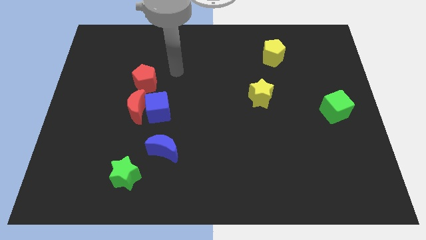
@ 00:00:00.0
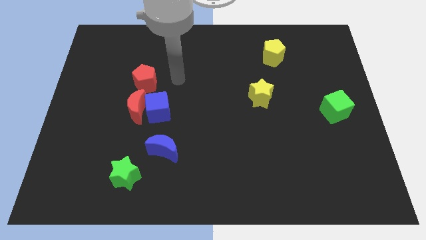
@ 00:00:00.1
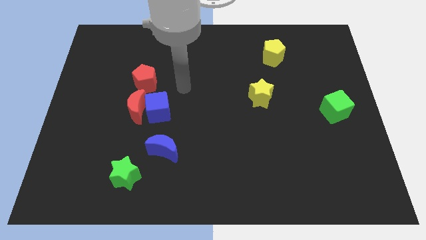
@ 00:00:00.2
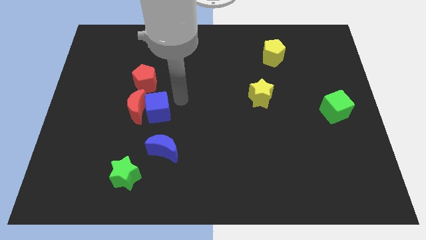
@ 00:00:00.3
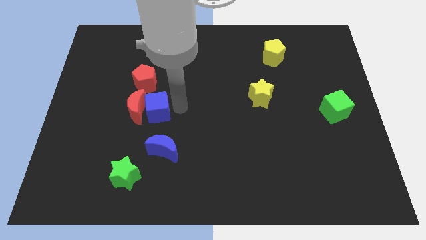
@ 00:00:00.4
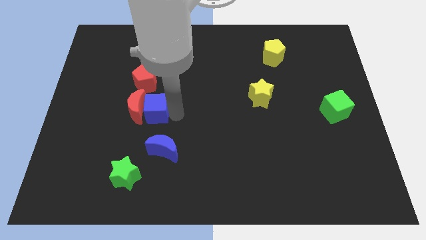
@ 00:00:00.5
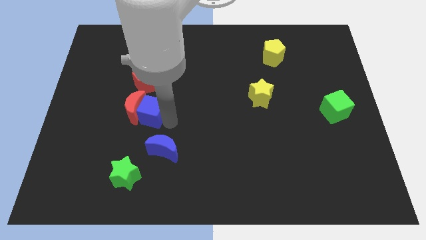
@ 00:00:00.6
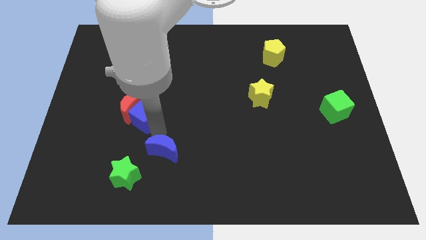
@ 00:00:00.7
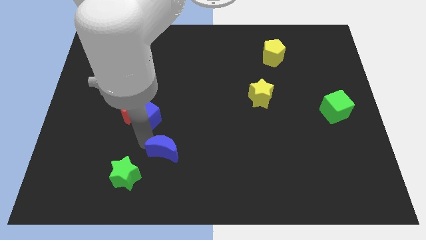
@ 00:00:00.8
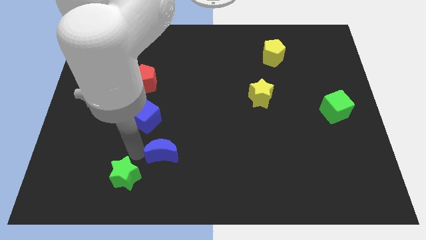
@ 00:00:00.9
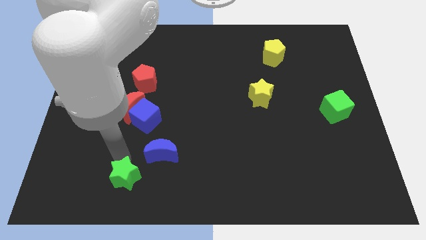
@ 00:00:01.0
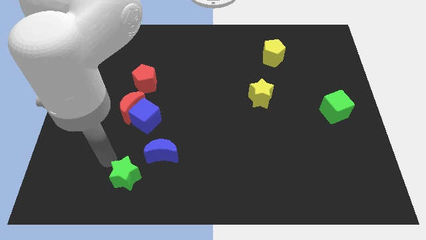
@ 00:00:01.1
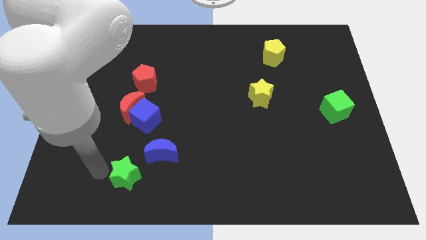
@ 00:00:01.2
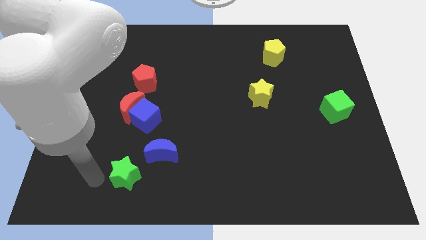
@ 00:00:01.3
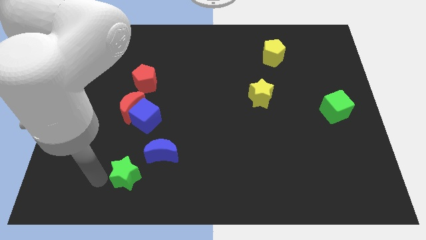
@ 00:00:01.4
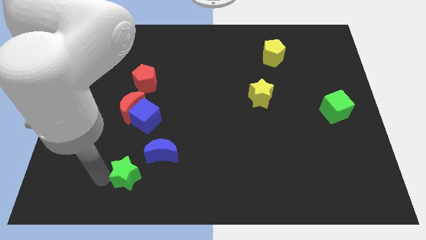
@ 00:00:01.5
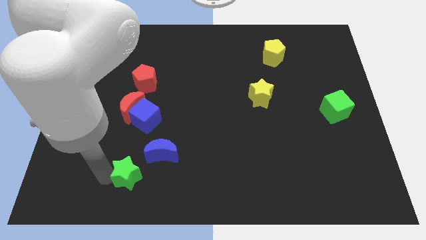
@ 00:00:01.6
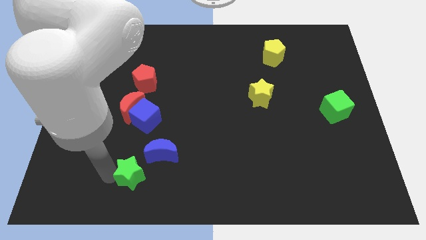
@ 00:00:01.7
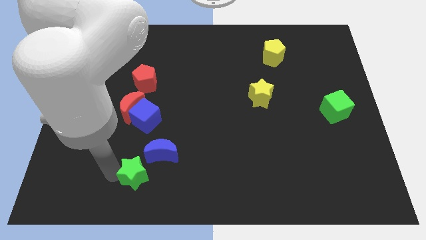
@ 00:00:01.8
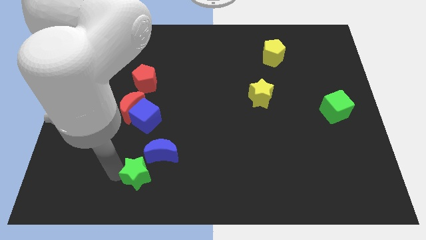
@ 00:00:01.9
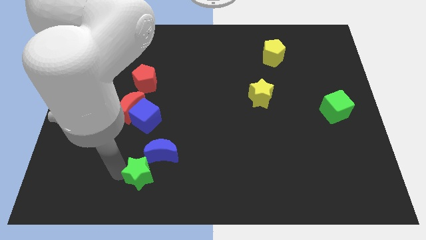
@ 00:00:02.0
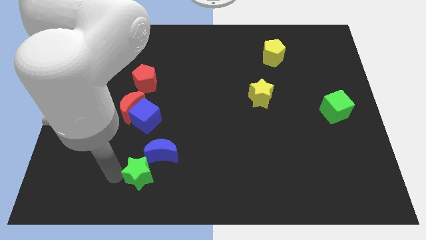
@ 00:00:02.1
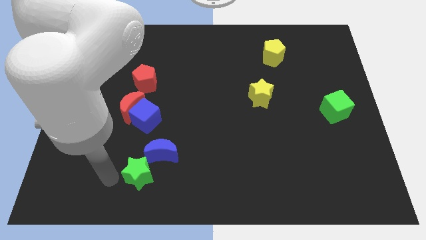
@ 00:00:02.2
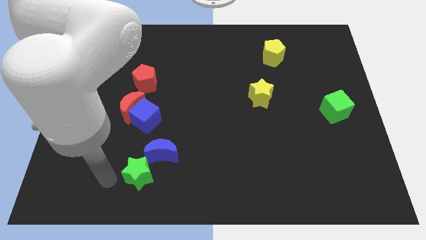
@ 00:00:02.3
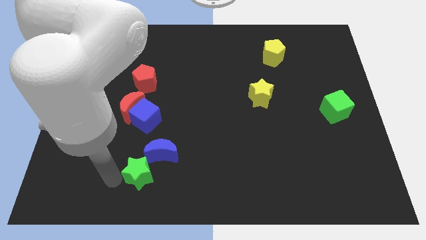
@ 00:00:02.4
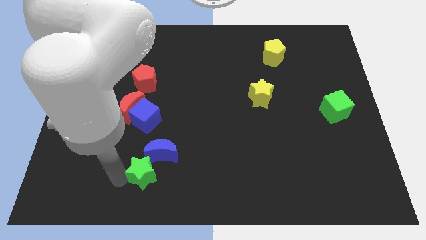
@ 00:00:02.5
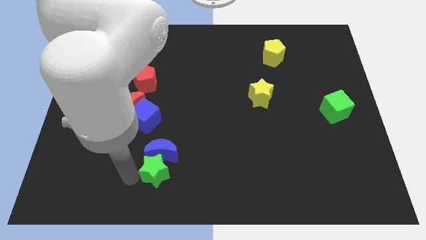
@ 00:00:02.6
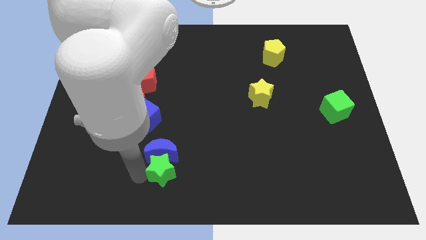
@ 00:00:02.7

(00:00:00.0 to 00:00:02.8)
slide the green star to the right a bit

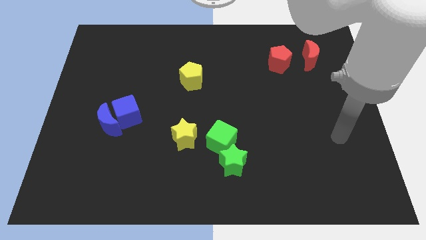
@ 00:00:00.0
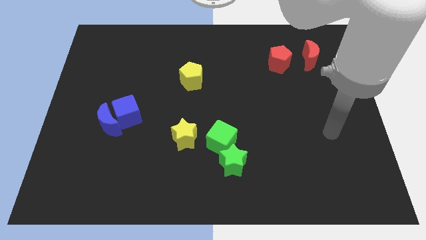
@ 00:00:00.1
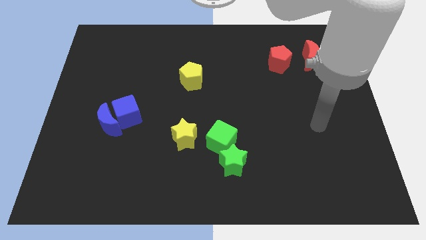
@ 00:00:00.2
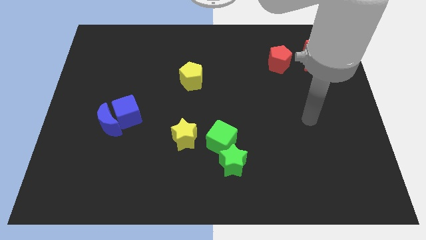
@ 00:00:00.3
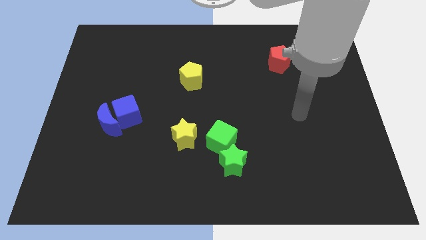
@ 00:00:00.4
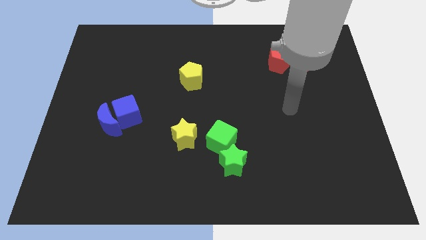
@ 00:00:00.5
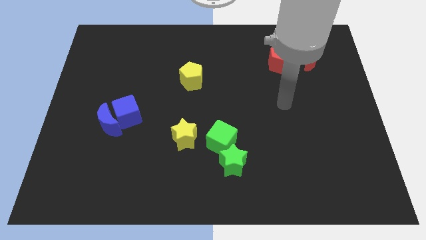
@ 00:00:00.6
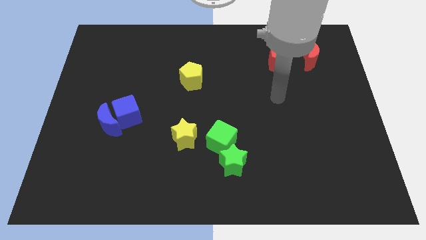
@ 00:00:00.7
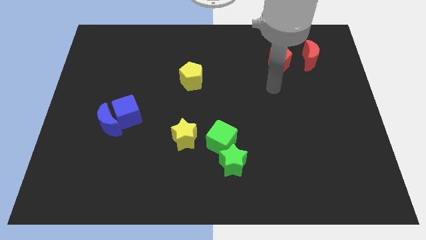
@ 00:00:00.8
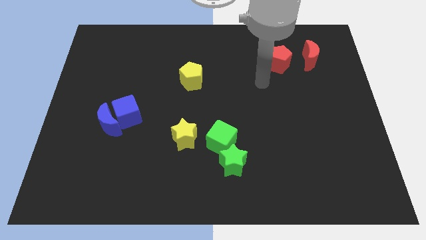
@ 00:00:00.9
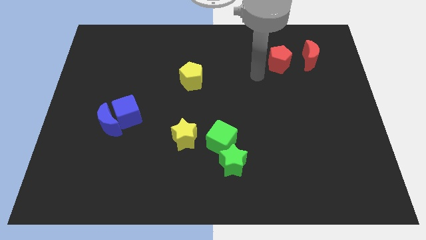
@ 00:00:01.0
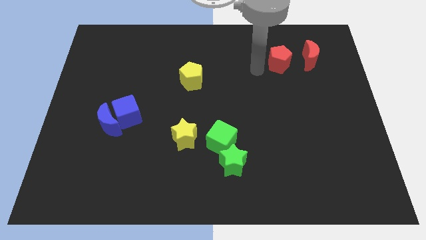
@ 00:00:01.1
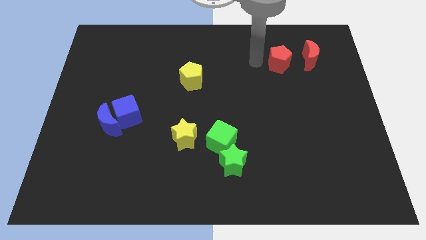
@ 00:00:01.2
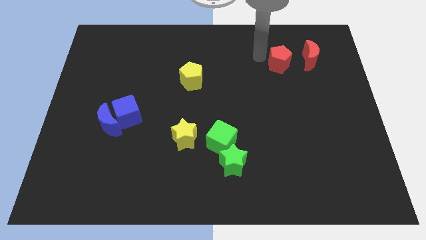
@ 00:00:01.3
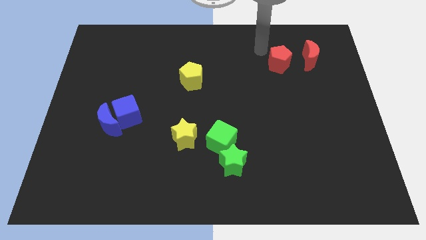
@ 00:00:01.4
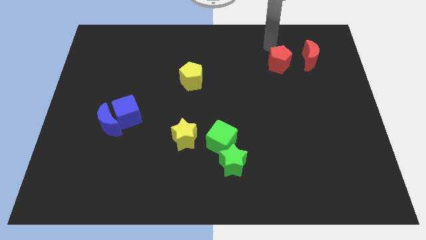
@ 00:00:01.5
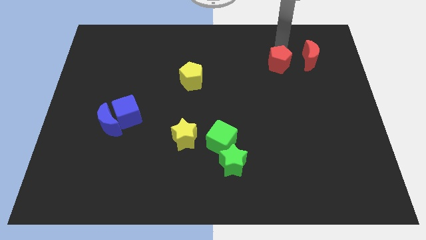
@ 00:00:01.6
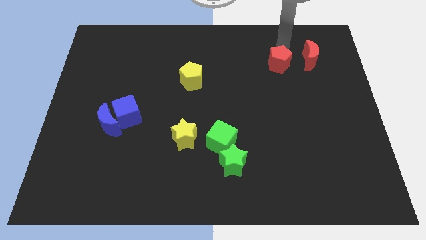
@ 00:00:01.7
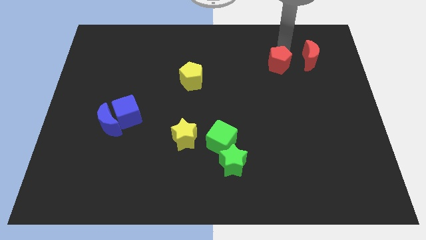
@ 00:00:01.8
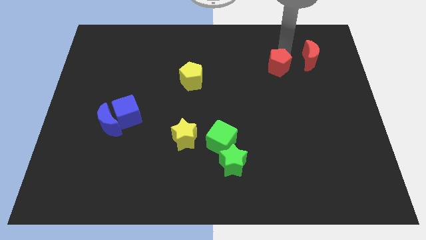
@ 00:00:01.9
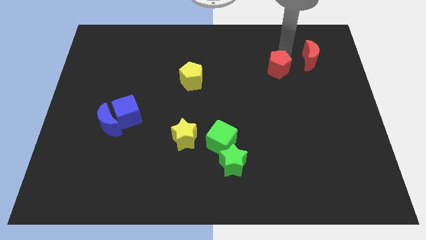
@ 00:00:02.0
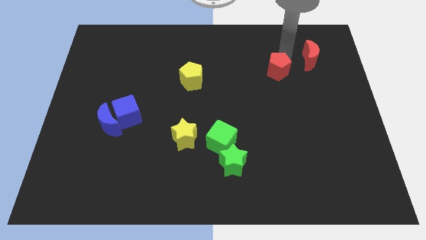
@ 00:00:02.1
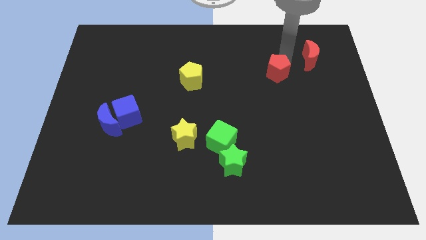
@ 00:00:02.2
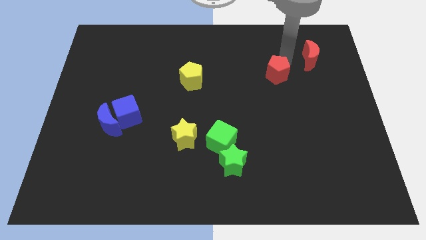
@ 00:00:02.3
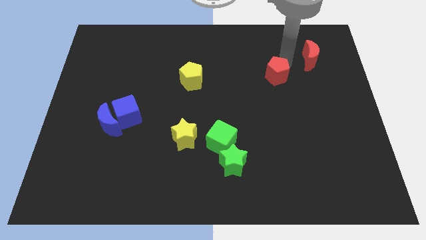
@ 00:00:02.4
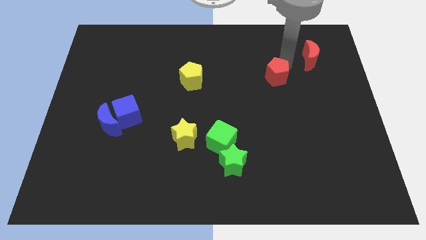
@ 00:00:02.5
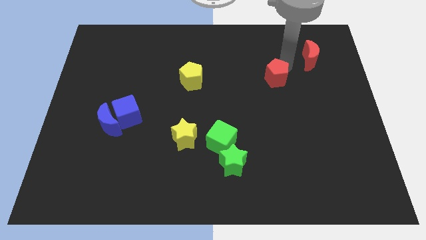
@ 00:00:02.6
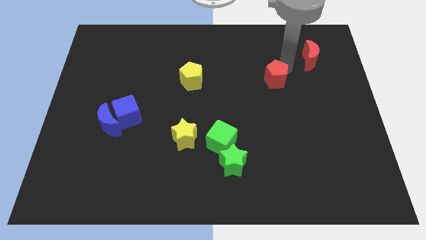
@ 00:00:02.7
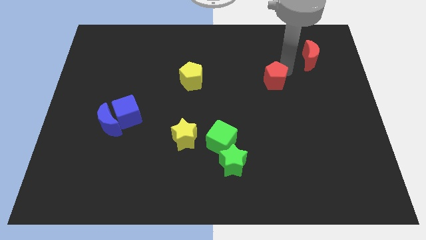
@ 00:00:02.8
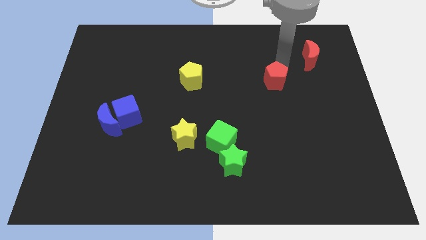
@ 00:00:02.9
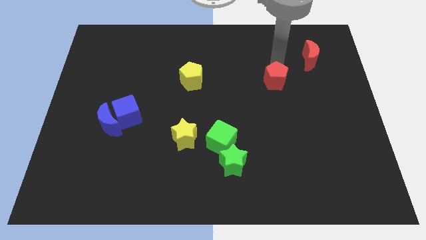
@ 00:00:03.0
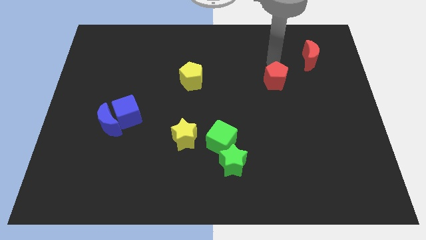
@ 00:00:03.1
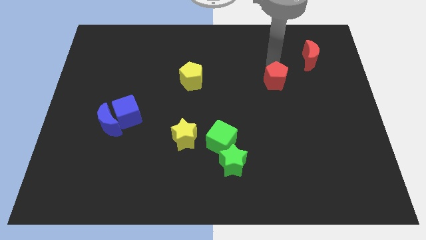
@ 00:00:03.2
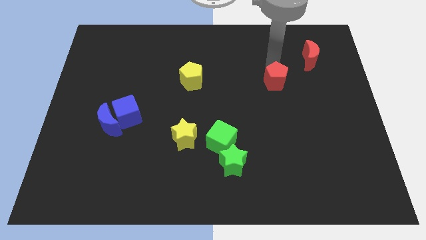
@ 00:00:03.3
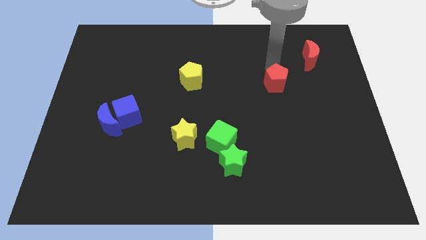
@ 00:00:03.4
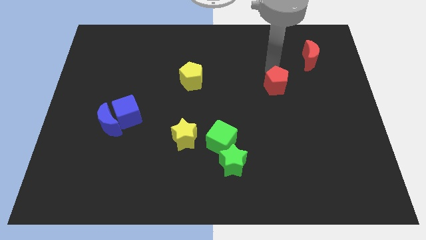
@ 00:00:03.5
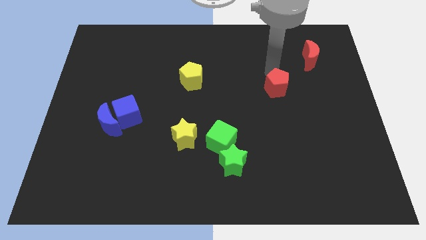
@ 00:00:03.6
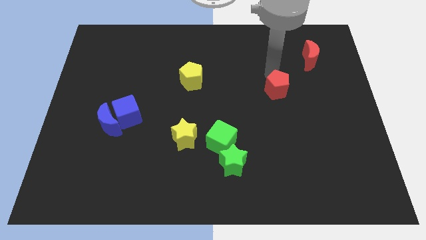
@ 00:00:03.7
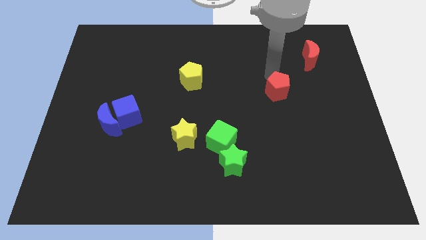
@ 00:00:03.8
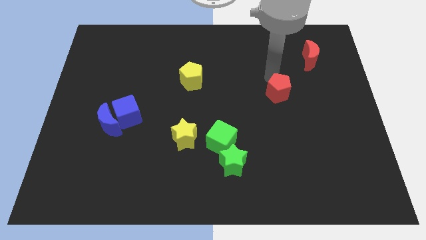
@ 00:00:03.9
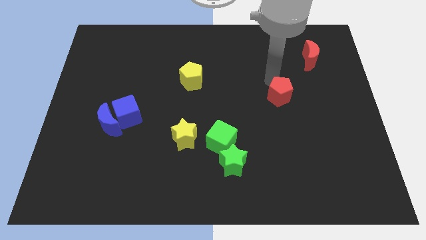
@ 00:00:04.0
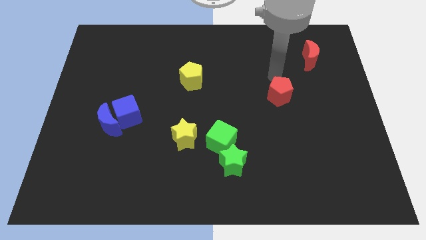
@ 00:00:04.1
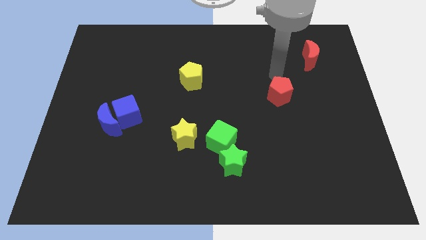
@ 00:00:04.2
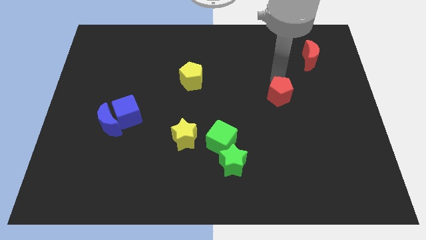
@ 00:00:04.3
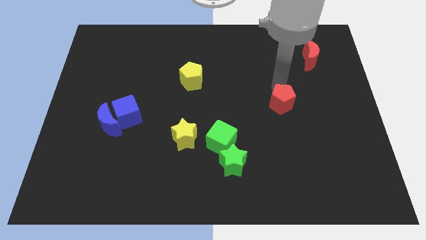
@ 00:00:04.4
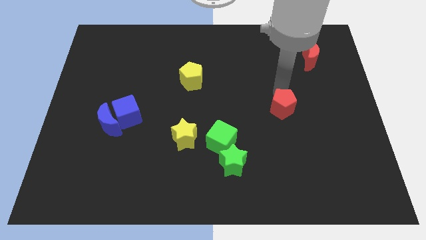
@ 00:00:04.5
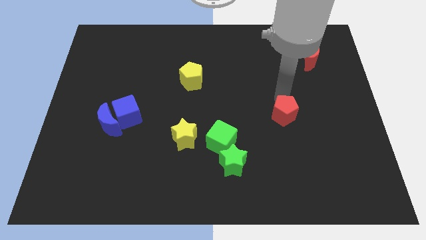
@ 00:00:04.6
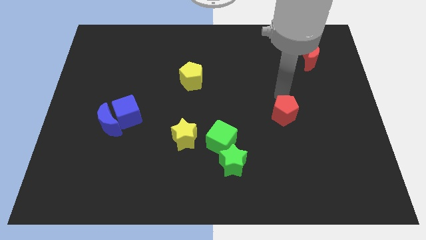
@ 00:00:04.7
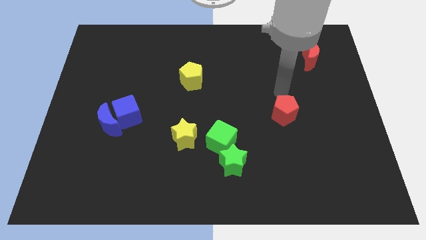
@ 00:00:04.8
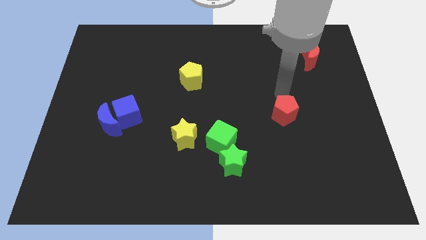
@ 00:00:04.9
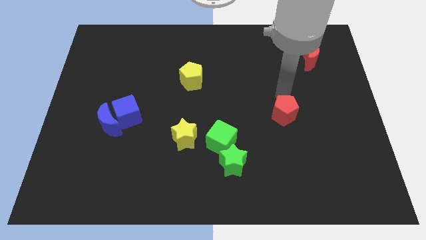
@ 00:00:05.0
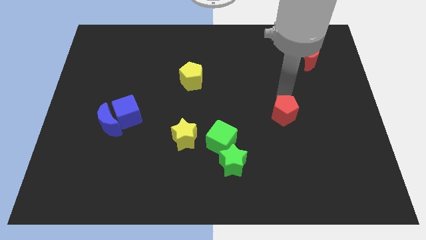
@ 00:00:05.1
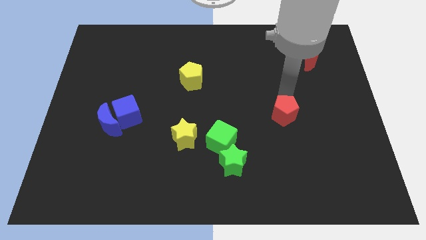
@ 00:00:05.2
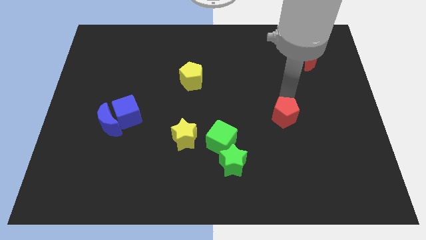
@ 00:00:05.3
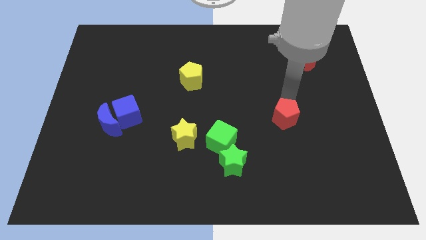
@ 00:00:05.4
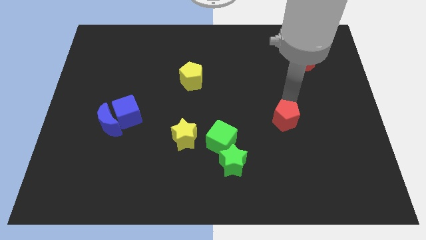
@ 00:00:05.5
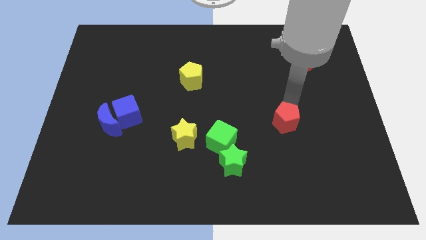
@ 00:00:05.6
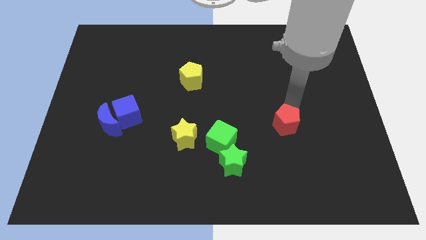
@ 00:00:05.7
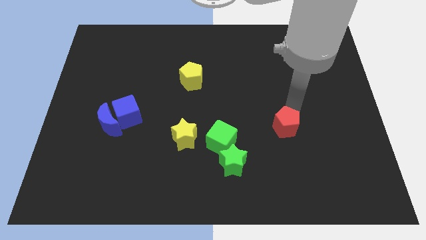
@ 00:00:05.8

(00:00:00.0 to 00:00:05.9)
push the red pentagon down
